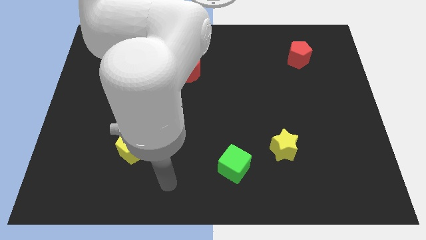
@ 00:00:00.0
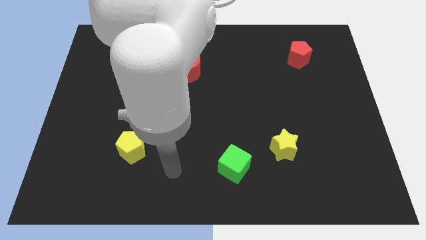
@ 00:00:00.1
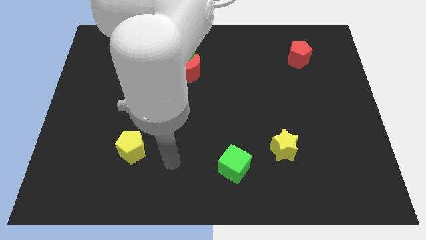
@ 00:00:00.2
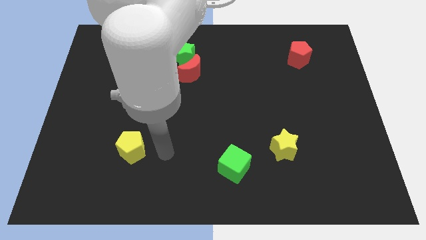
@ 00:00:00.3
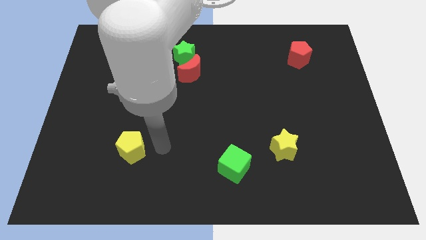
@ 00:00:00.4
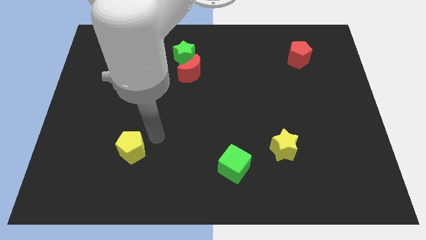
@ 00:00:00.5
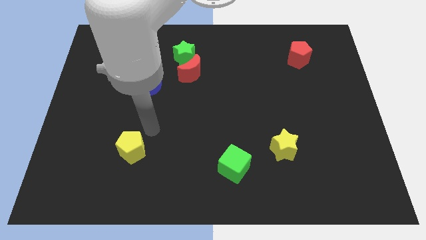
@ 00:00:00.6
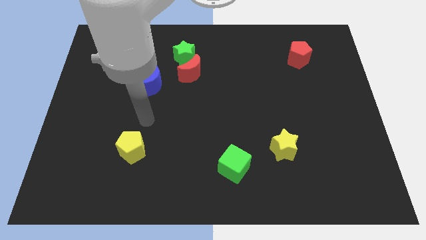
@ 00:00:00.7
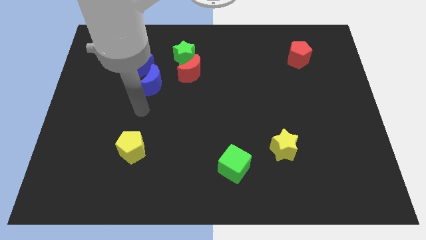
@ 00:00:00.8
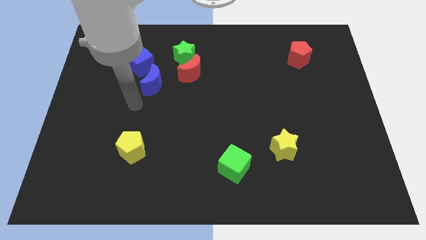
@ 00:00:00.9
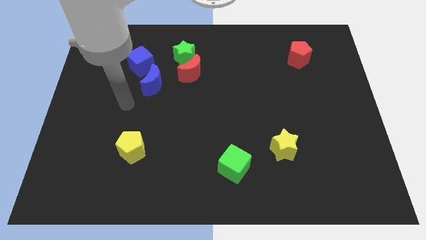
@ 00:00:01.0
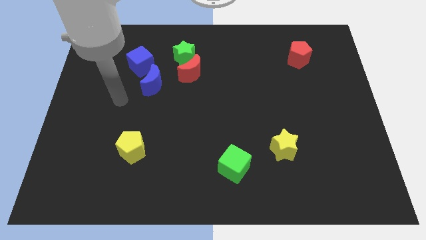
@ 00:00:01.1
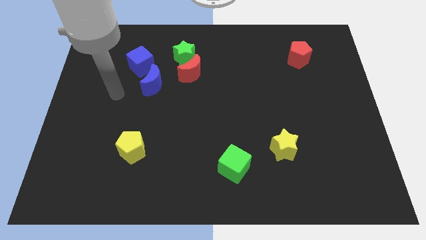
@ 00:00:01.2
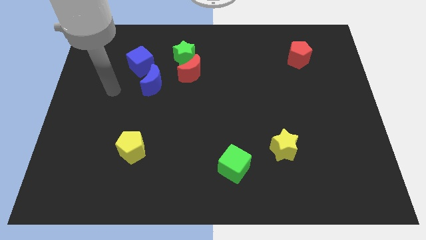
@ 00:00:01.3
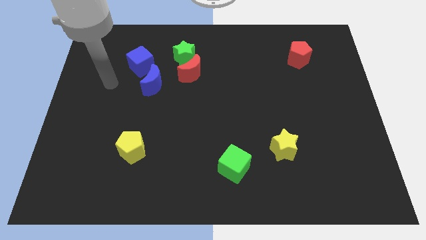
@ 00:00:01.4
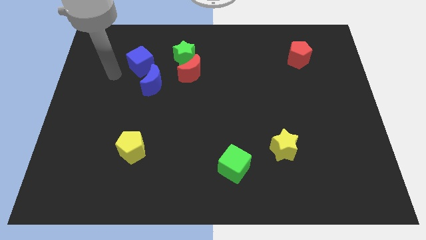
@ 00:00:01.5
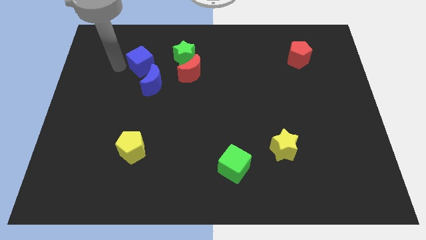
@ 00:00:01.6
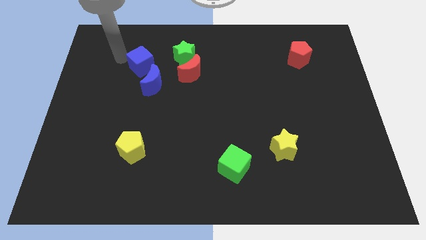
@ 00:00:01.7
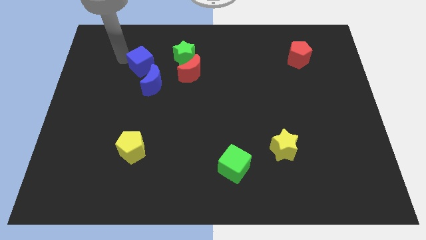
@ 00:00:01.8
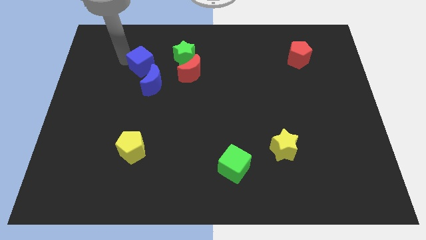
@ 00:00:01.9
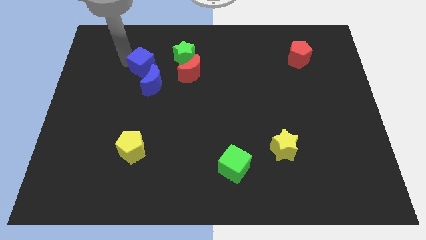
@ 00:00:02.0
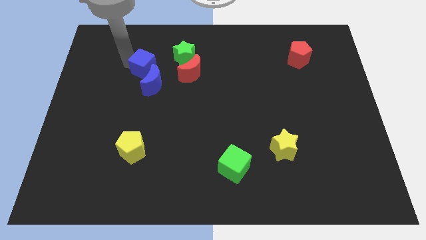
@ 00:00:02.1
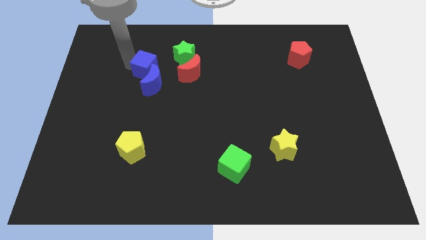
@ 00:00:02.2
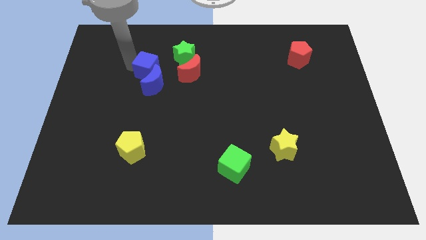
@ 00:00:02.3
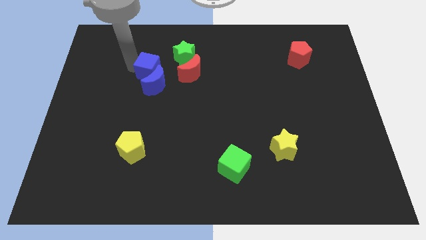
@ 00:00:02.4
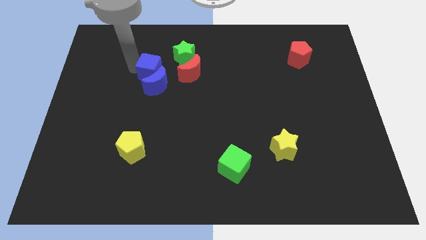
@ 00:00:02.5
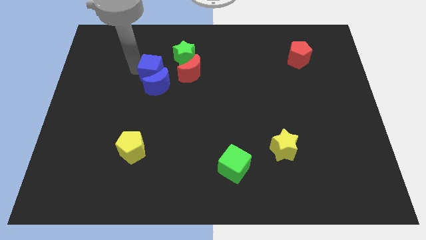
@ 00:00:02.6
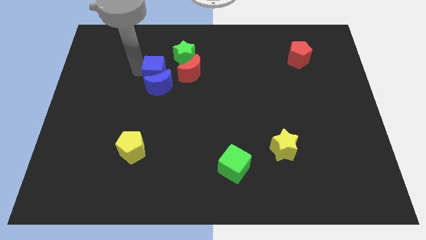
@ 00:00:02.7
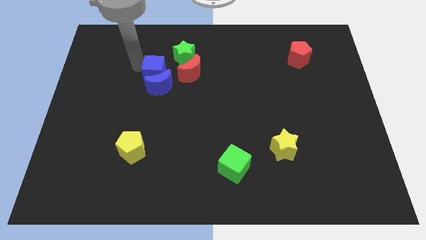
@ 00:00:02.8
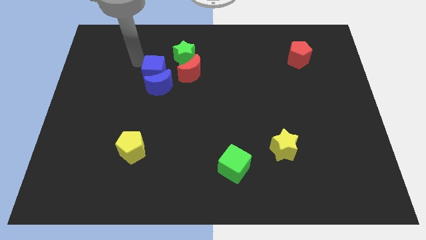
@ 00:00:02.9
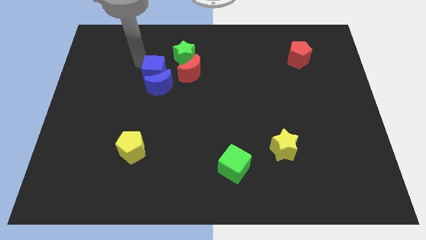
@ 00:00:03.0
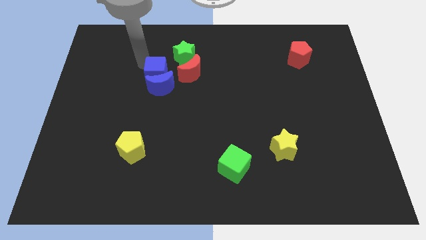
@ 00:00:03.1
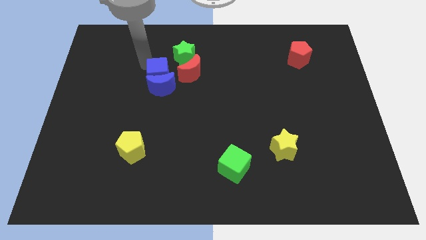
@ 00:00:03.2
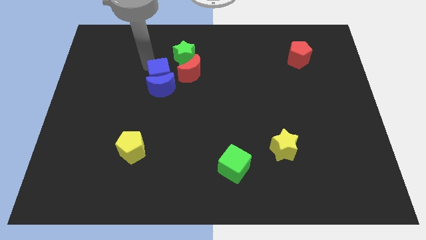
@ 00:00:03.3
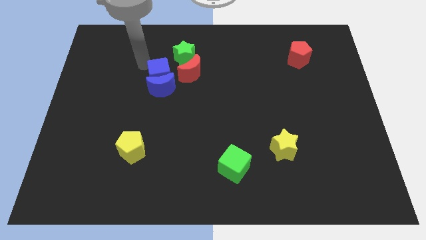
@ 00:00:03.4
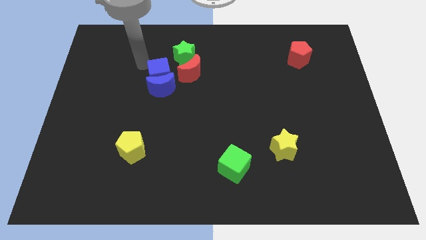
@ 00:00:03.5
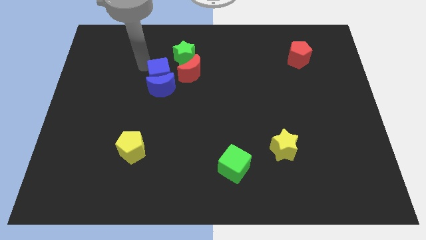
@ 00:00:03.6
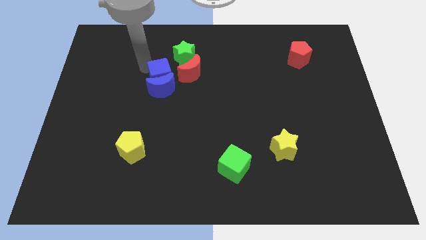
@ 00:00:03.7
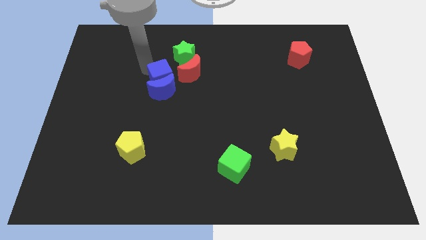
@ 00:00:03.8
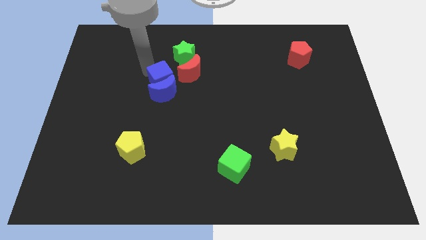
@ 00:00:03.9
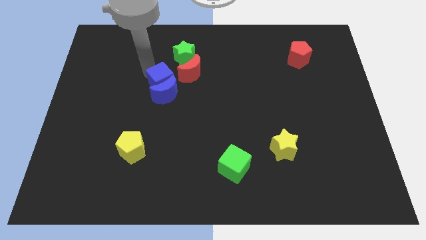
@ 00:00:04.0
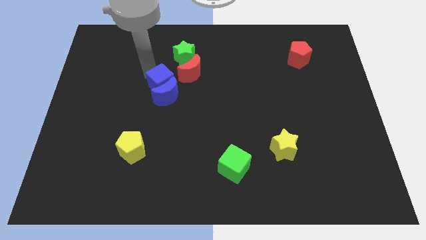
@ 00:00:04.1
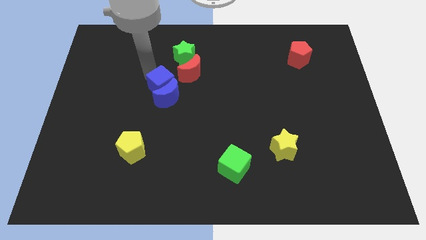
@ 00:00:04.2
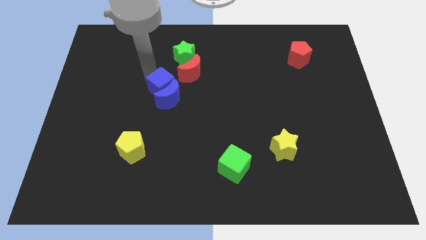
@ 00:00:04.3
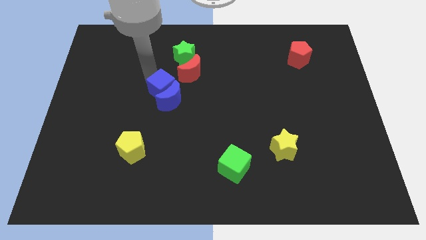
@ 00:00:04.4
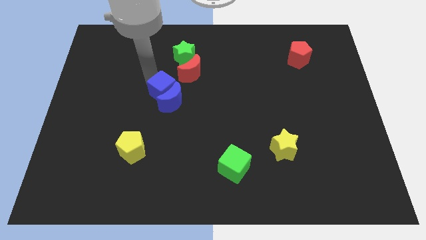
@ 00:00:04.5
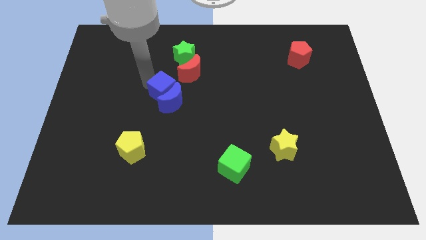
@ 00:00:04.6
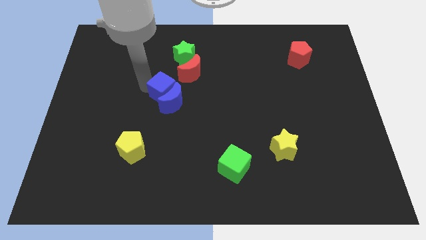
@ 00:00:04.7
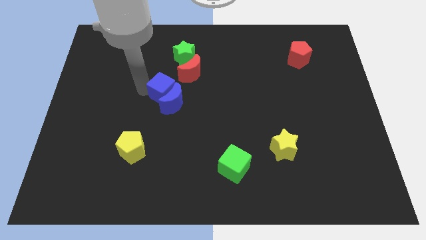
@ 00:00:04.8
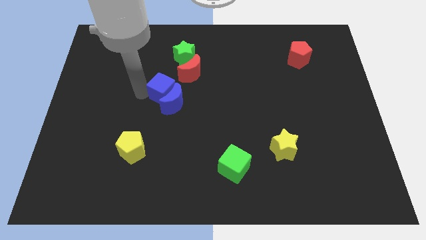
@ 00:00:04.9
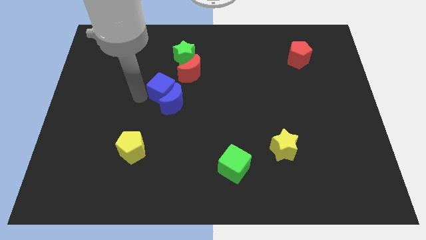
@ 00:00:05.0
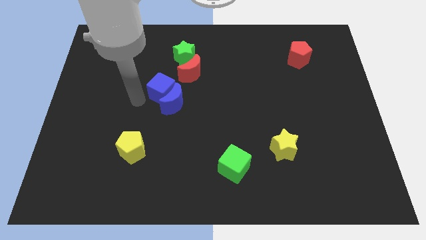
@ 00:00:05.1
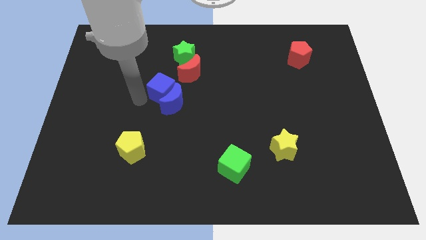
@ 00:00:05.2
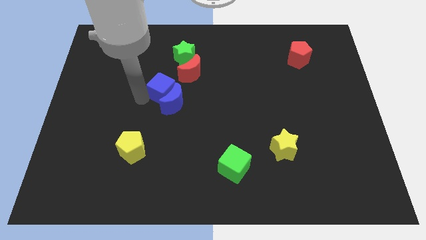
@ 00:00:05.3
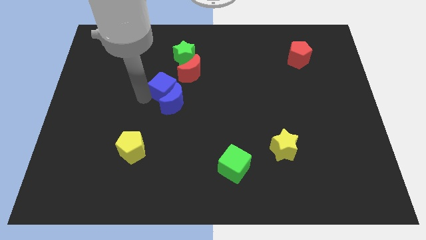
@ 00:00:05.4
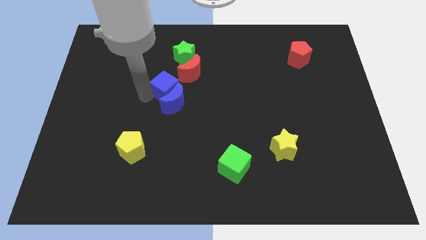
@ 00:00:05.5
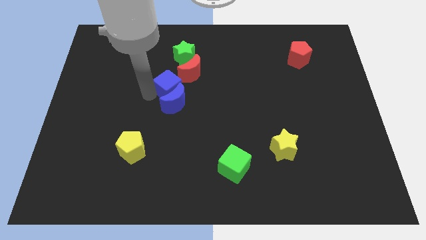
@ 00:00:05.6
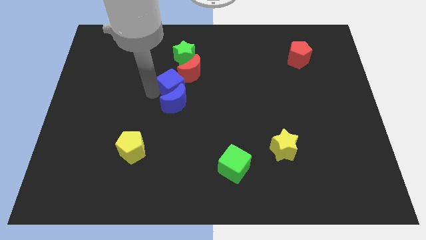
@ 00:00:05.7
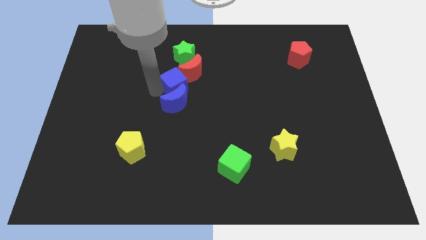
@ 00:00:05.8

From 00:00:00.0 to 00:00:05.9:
push the blue cube to the right a bit

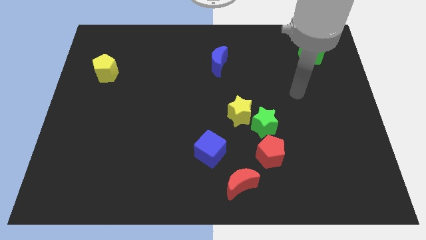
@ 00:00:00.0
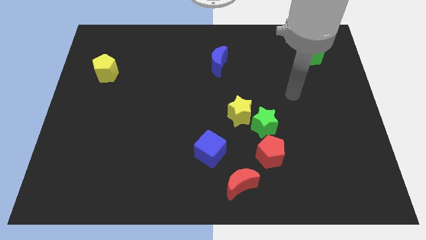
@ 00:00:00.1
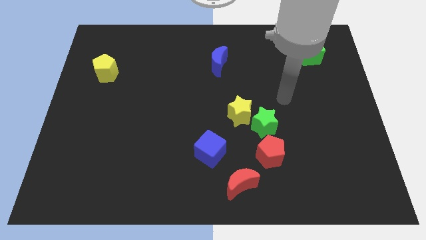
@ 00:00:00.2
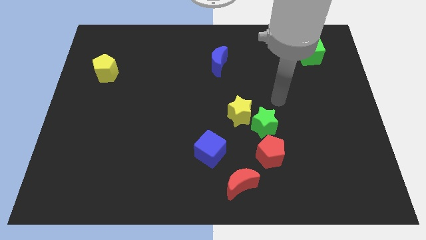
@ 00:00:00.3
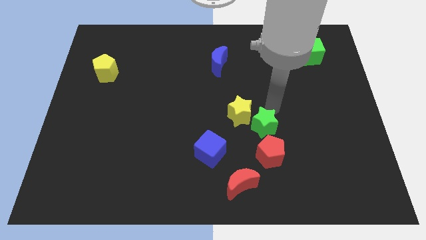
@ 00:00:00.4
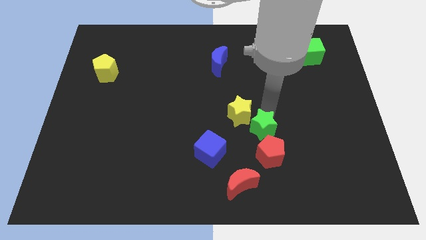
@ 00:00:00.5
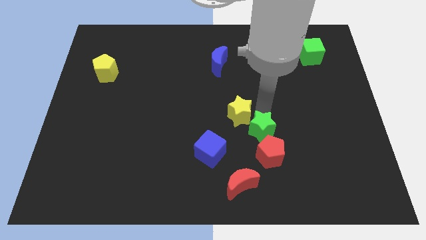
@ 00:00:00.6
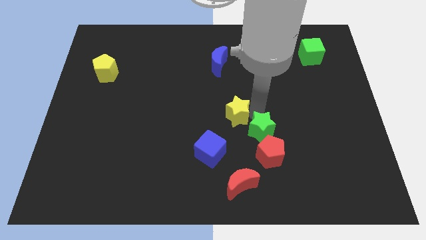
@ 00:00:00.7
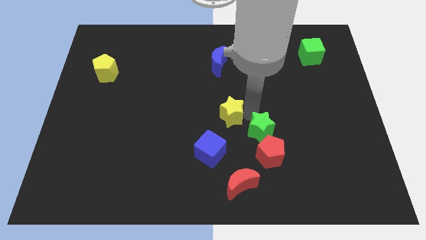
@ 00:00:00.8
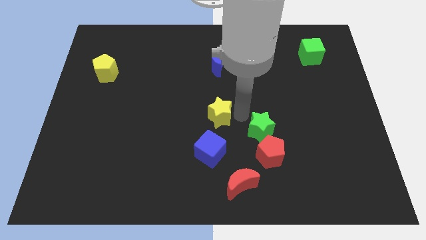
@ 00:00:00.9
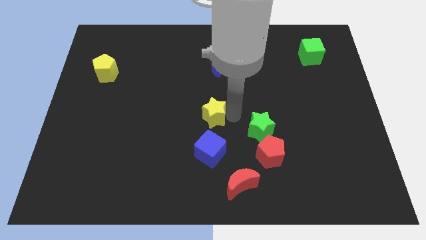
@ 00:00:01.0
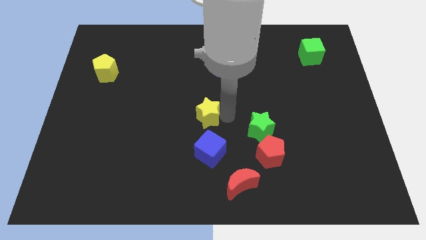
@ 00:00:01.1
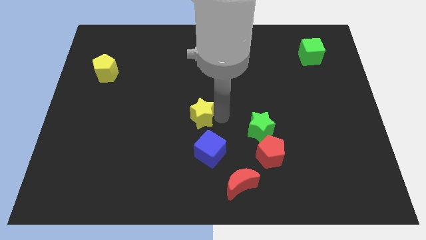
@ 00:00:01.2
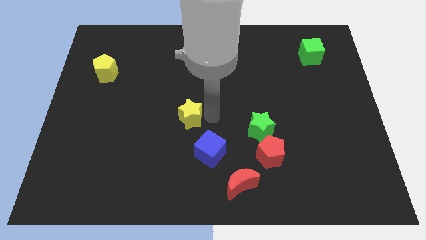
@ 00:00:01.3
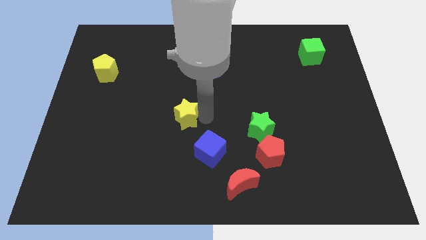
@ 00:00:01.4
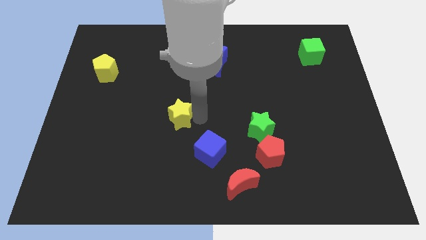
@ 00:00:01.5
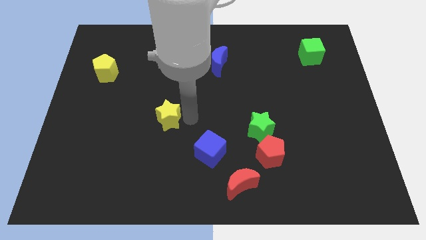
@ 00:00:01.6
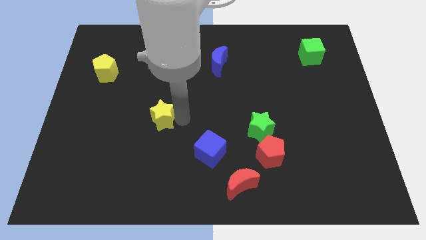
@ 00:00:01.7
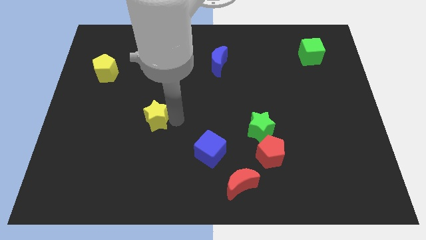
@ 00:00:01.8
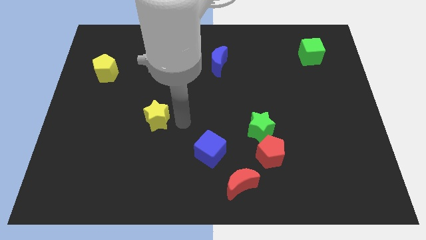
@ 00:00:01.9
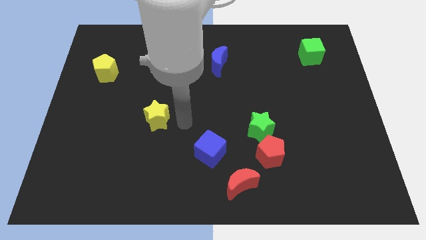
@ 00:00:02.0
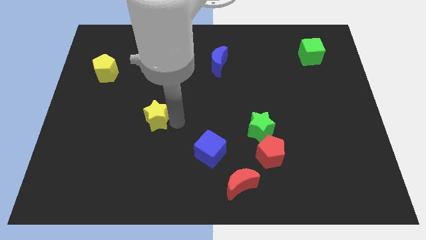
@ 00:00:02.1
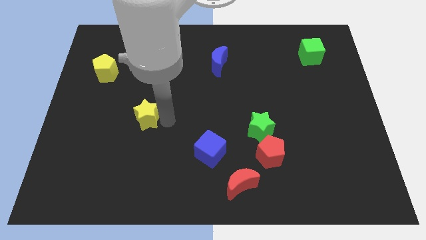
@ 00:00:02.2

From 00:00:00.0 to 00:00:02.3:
slide the yellow star to the left
